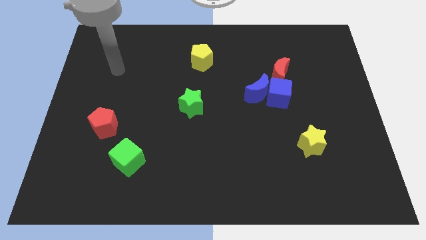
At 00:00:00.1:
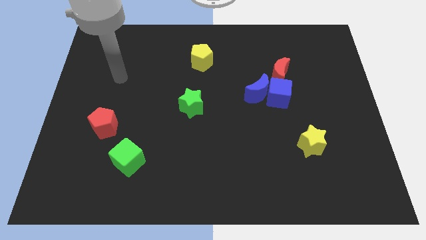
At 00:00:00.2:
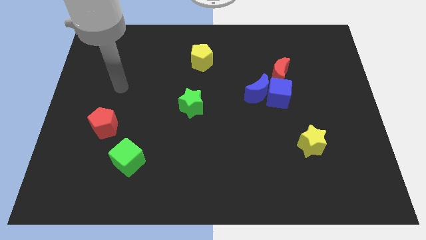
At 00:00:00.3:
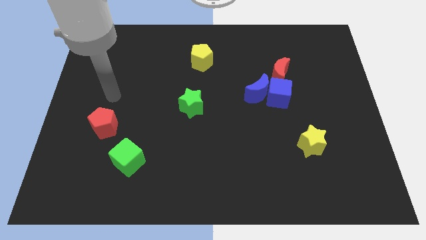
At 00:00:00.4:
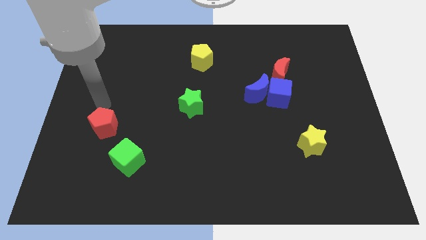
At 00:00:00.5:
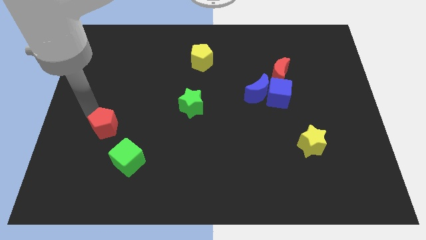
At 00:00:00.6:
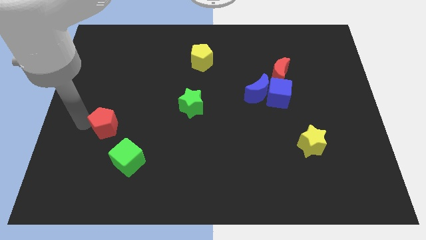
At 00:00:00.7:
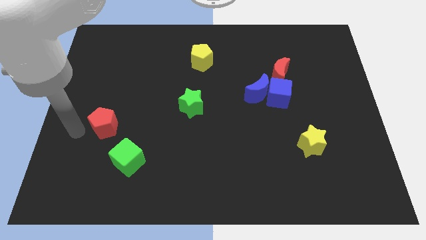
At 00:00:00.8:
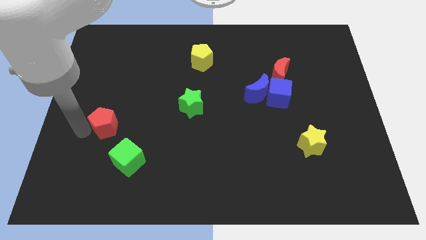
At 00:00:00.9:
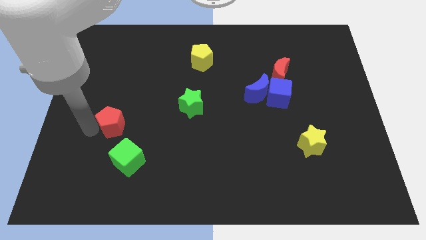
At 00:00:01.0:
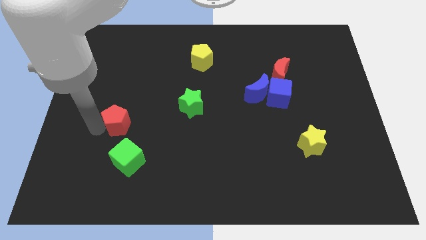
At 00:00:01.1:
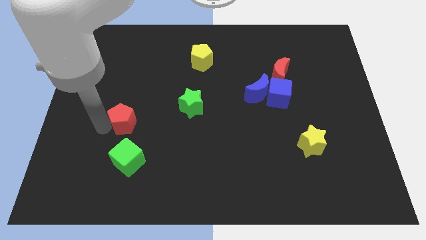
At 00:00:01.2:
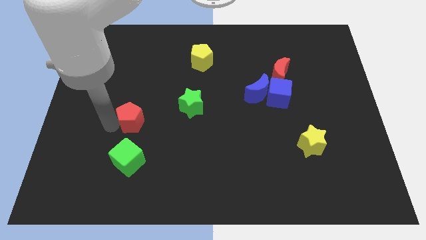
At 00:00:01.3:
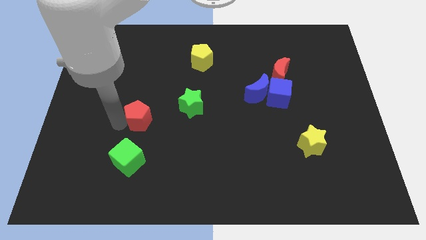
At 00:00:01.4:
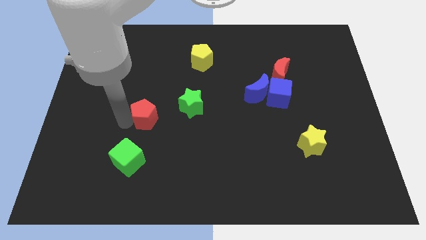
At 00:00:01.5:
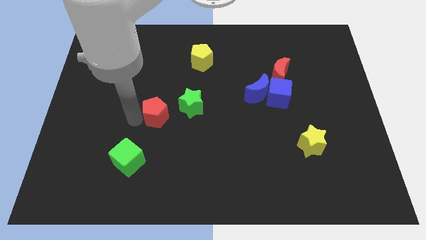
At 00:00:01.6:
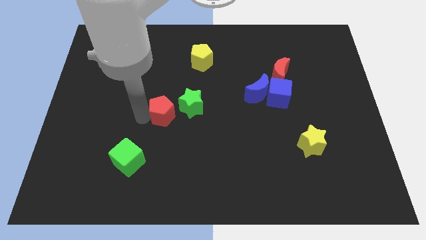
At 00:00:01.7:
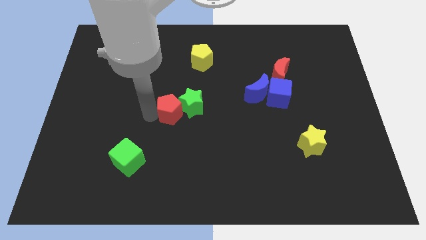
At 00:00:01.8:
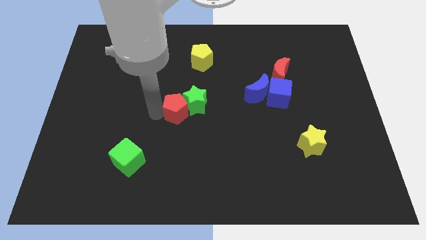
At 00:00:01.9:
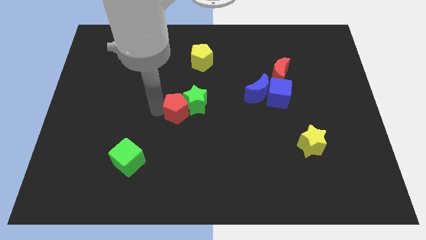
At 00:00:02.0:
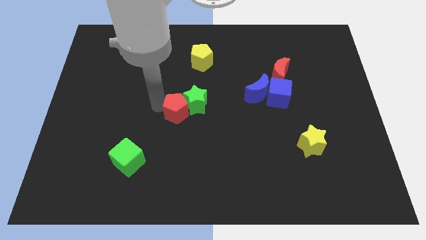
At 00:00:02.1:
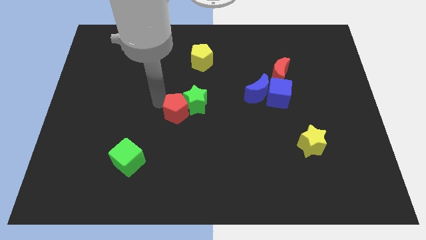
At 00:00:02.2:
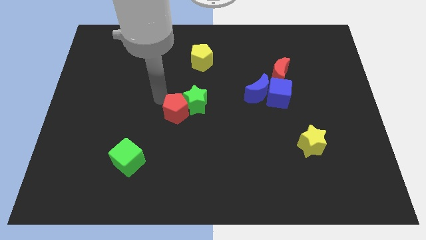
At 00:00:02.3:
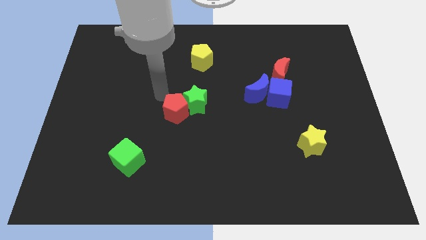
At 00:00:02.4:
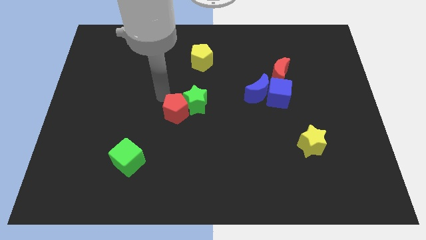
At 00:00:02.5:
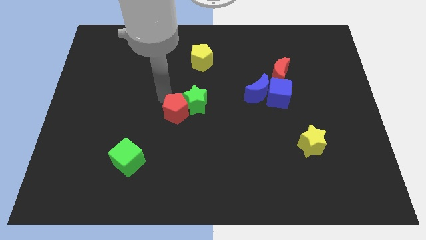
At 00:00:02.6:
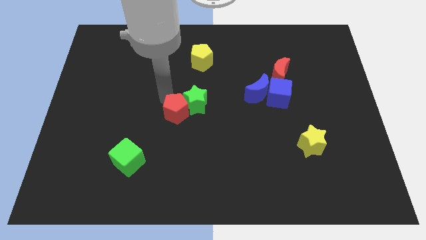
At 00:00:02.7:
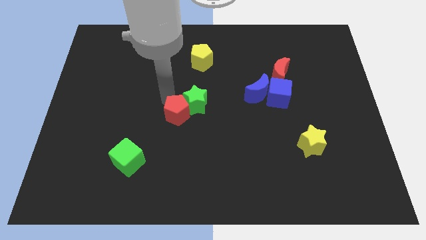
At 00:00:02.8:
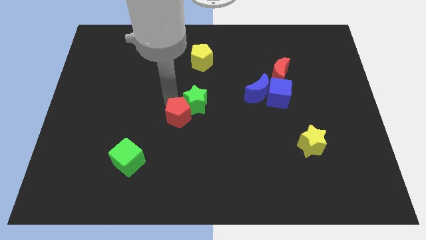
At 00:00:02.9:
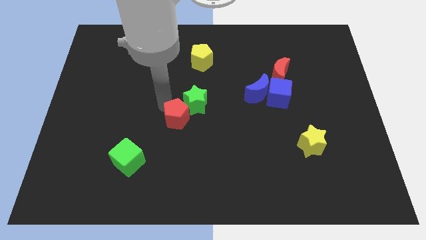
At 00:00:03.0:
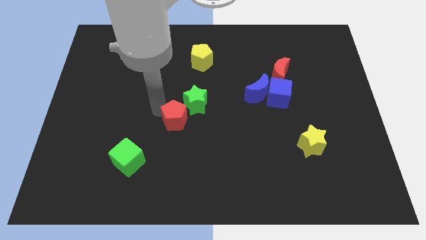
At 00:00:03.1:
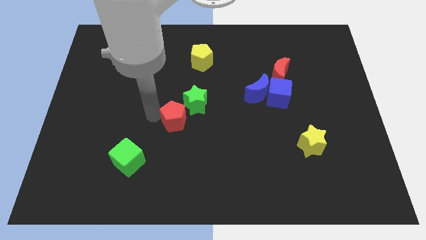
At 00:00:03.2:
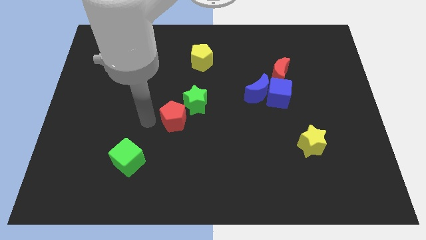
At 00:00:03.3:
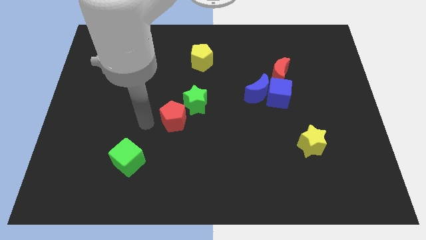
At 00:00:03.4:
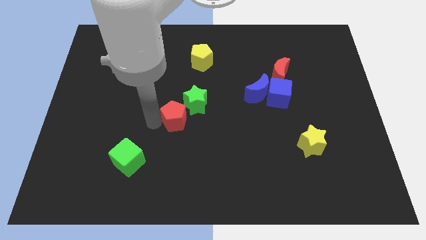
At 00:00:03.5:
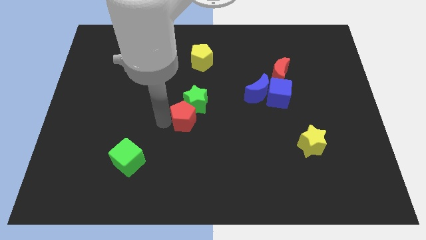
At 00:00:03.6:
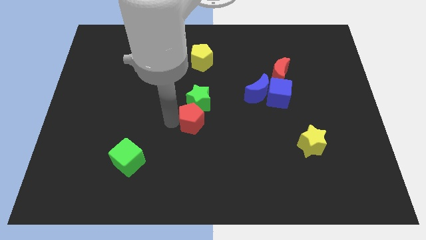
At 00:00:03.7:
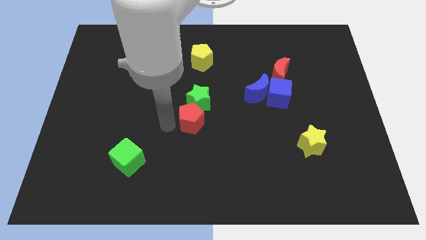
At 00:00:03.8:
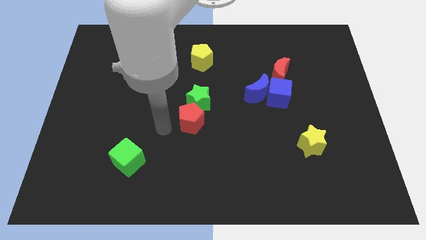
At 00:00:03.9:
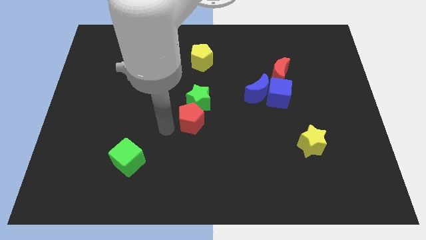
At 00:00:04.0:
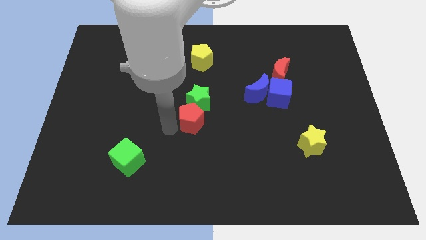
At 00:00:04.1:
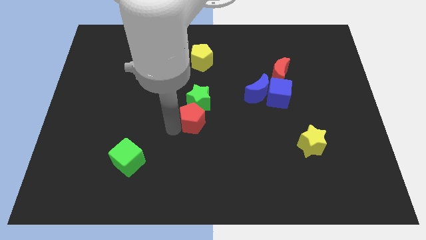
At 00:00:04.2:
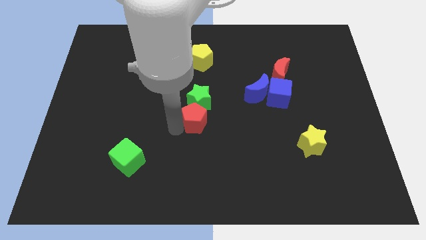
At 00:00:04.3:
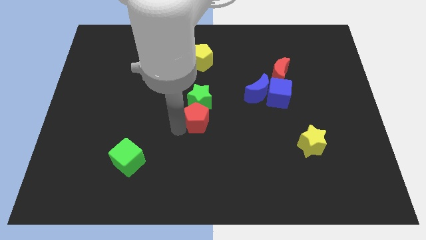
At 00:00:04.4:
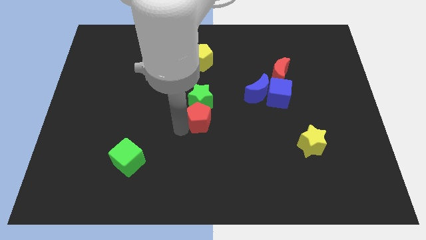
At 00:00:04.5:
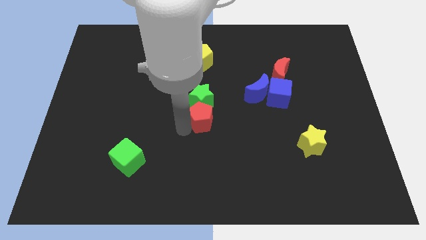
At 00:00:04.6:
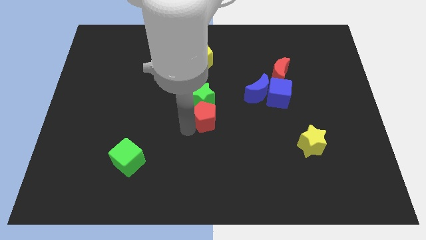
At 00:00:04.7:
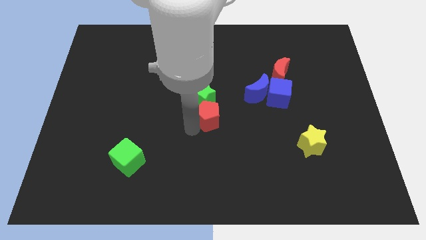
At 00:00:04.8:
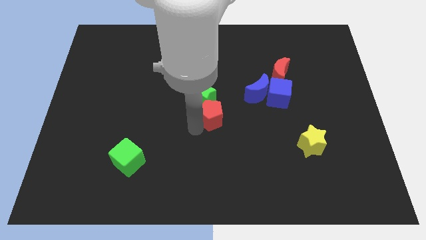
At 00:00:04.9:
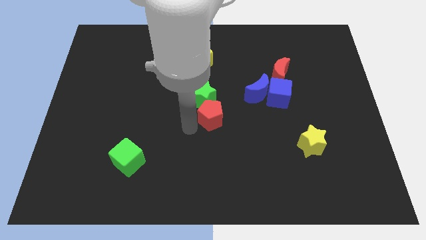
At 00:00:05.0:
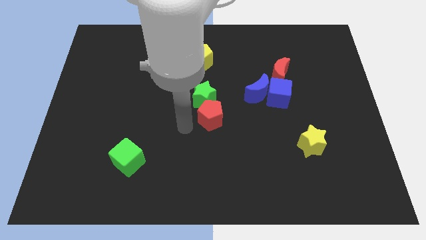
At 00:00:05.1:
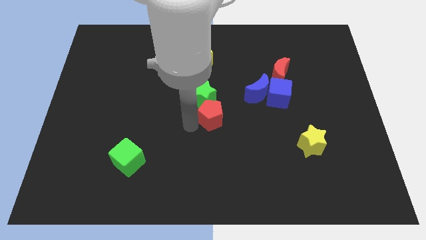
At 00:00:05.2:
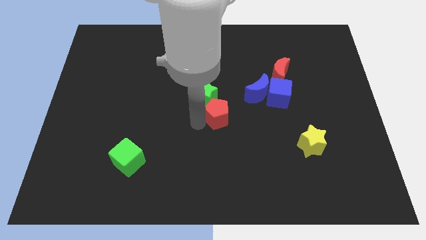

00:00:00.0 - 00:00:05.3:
move the red pentagon diagonally down and to the left of the blue moon
